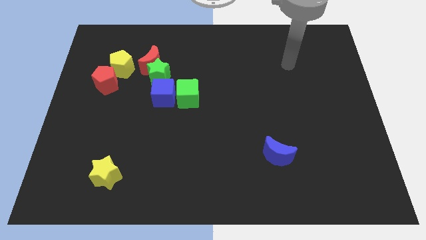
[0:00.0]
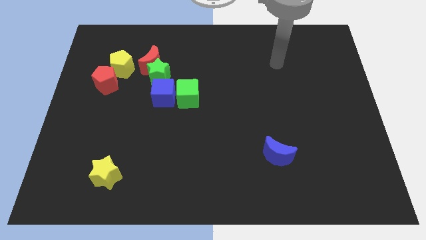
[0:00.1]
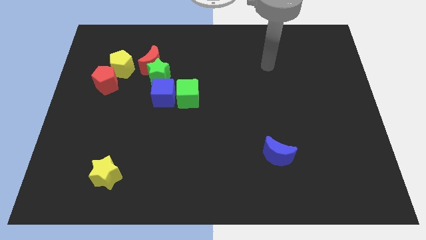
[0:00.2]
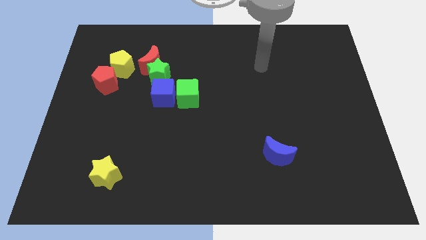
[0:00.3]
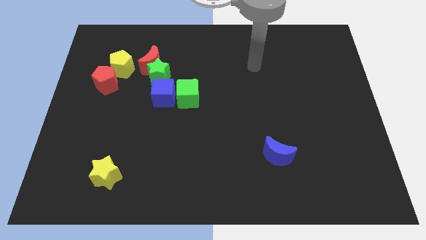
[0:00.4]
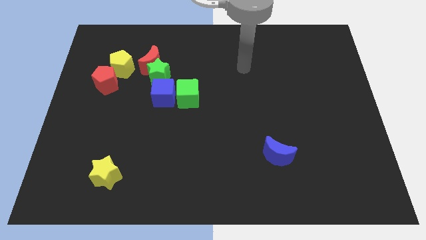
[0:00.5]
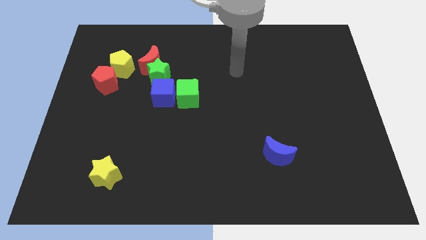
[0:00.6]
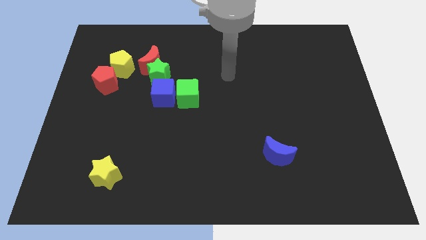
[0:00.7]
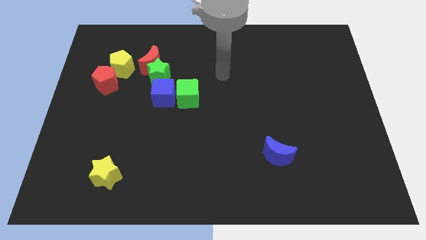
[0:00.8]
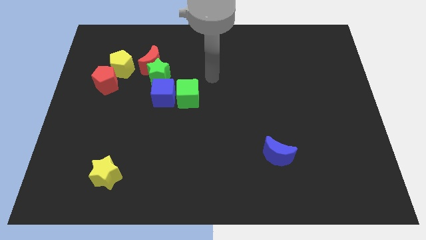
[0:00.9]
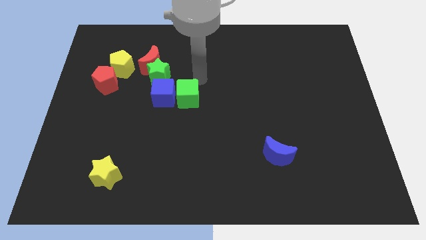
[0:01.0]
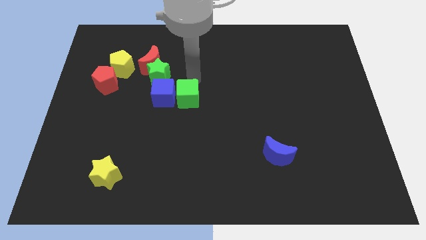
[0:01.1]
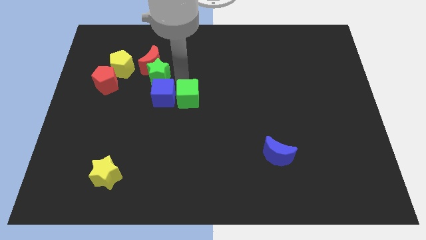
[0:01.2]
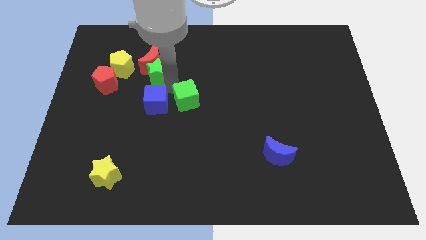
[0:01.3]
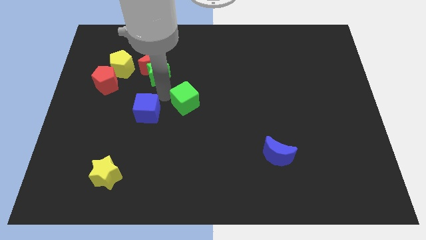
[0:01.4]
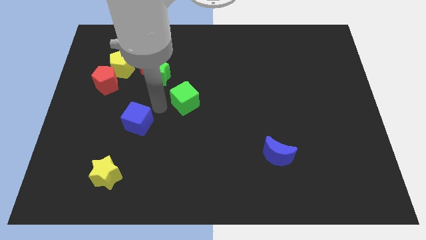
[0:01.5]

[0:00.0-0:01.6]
move the green cube away from the blue cube

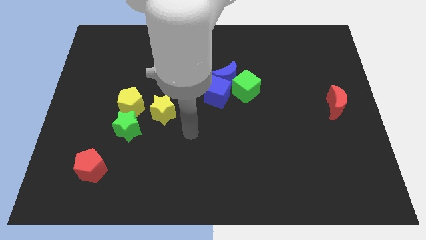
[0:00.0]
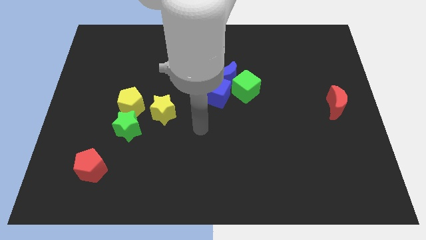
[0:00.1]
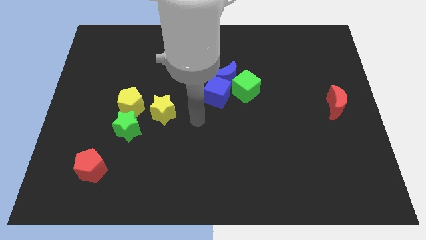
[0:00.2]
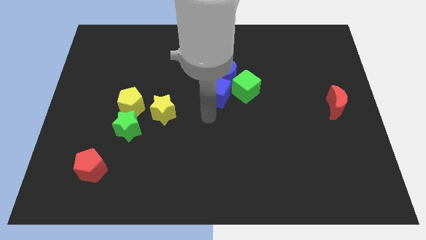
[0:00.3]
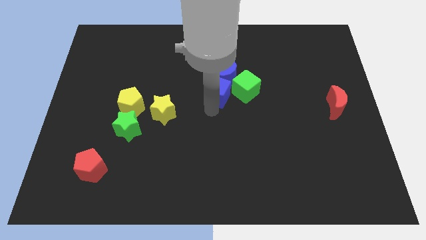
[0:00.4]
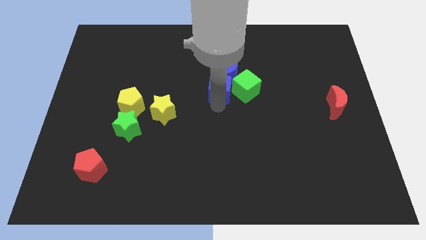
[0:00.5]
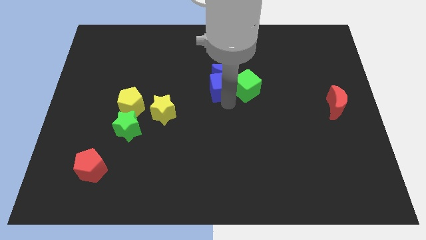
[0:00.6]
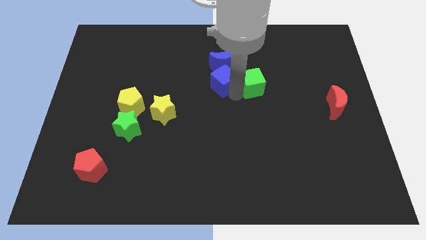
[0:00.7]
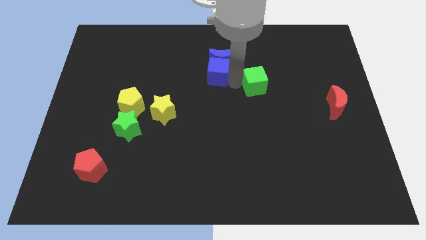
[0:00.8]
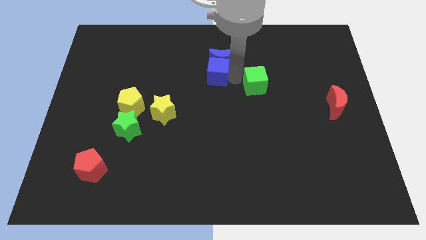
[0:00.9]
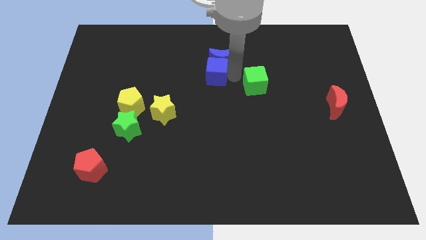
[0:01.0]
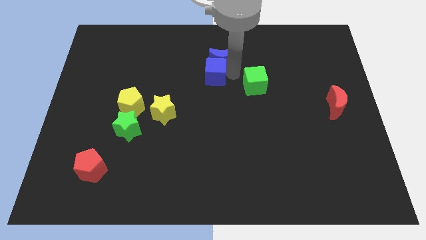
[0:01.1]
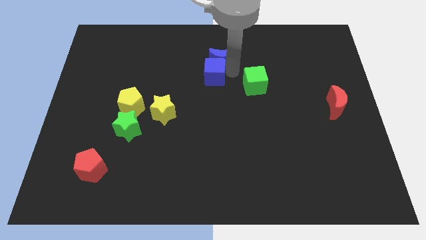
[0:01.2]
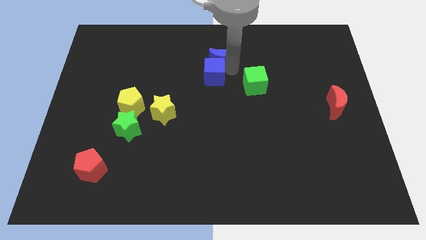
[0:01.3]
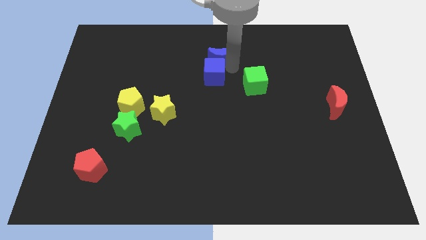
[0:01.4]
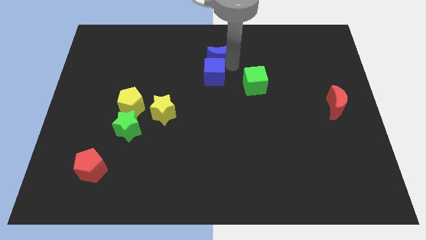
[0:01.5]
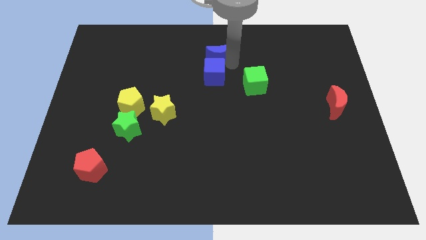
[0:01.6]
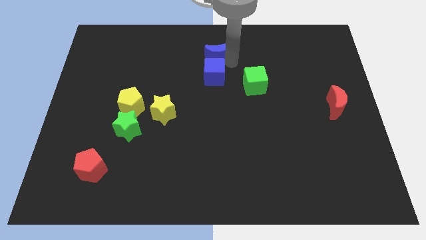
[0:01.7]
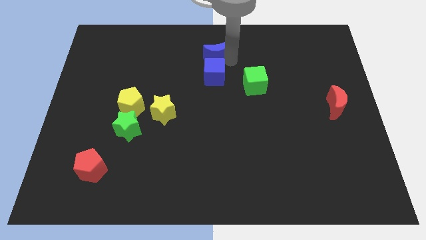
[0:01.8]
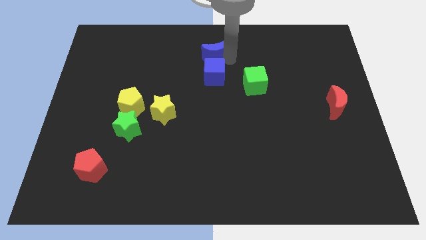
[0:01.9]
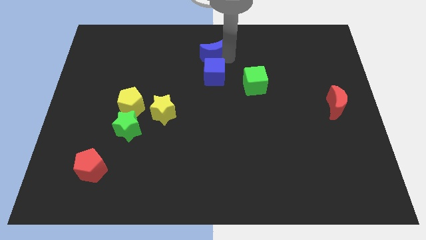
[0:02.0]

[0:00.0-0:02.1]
pull the blue moon apart from the blue cube and green cube

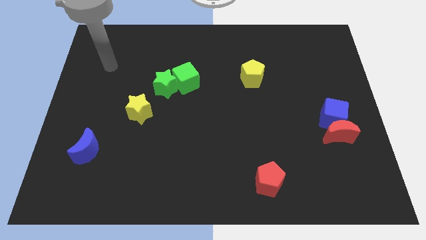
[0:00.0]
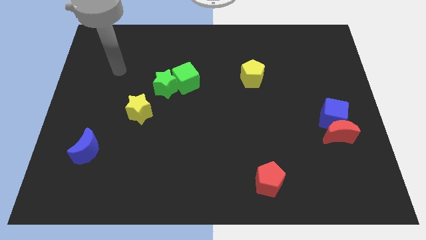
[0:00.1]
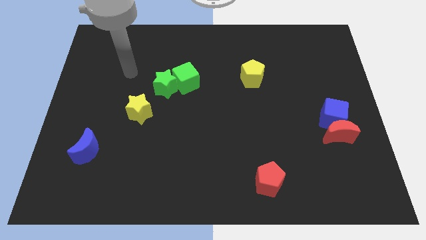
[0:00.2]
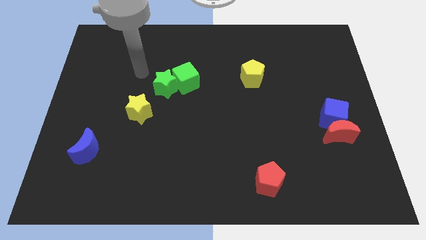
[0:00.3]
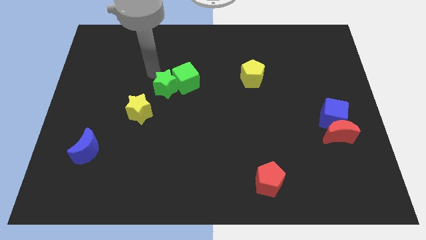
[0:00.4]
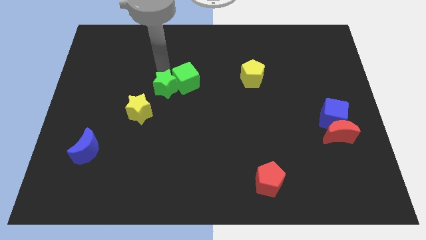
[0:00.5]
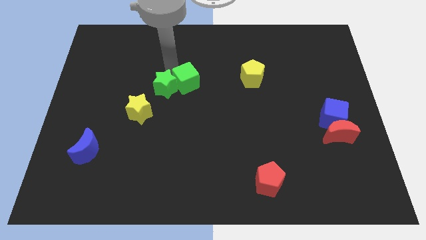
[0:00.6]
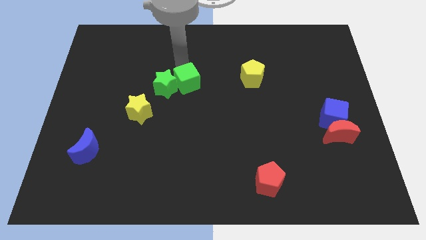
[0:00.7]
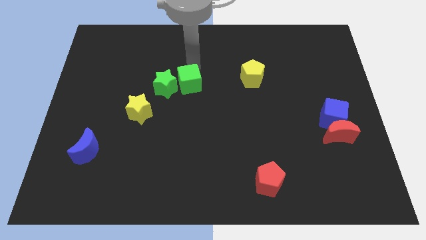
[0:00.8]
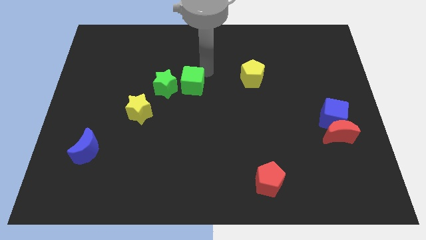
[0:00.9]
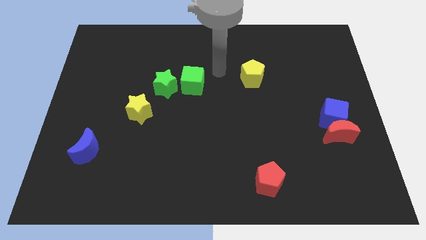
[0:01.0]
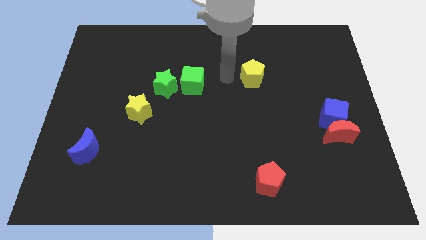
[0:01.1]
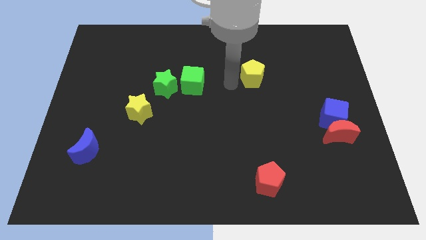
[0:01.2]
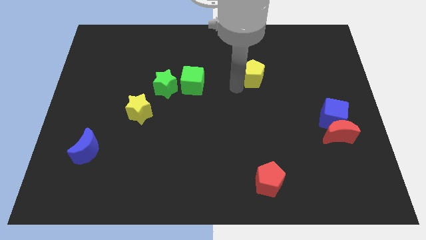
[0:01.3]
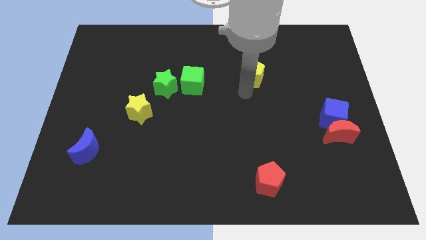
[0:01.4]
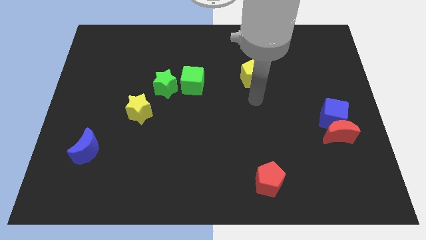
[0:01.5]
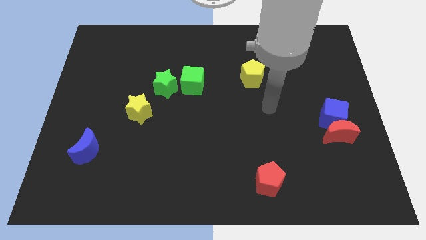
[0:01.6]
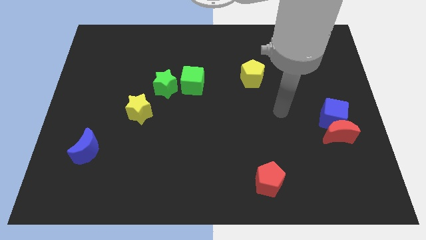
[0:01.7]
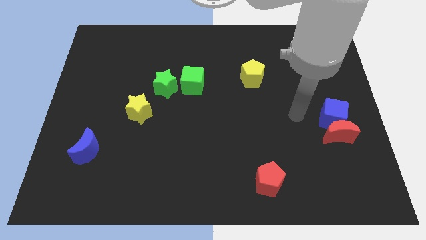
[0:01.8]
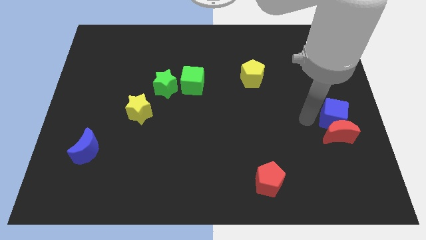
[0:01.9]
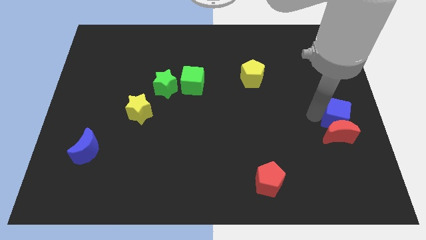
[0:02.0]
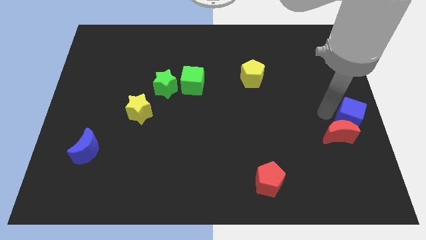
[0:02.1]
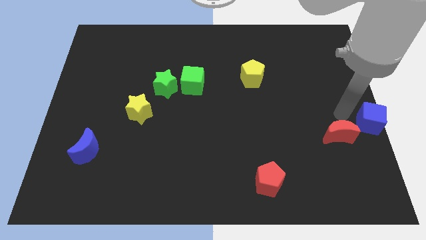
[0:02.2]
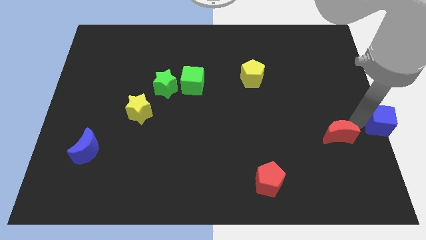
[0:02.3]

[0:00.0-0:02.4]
separate the red moon from the blue cube

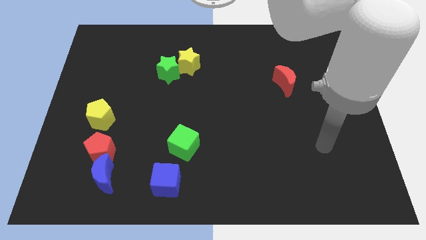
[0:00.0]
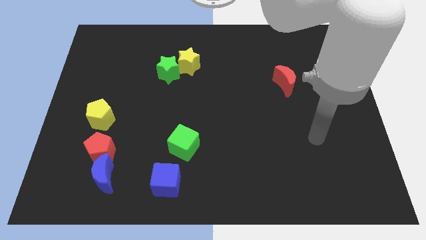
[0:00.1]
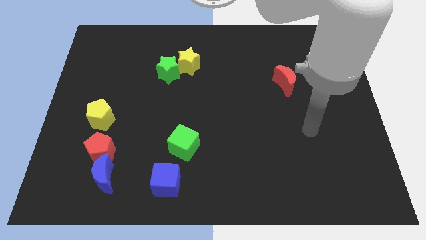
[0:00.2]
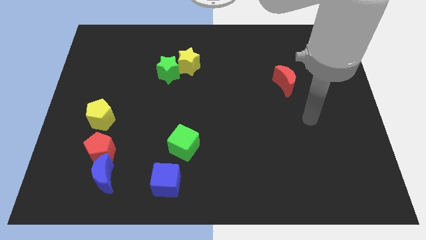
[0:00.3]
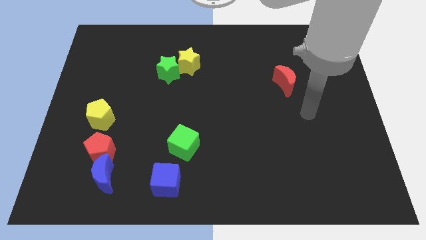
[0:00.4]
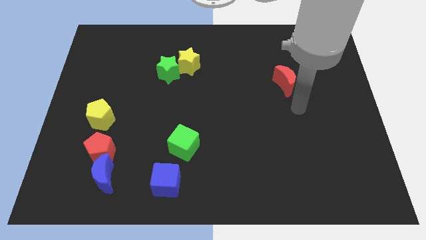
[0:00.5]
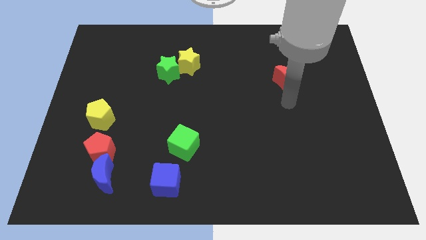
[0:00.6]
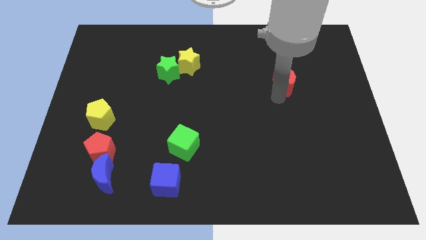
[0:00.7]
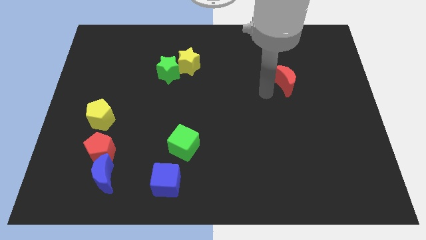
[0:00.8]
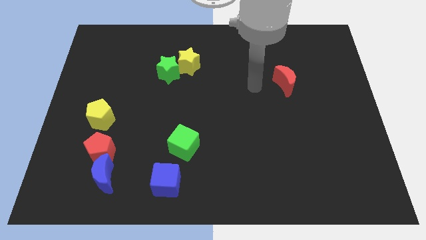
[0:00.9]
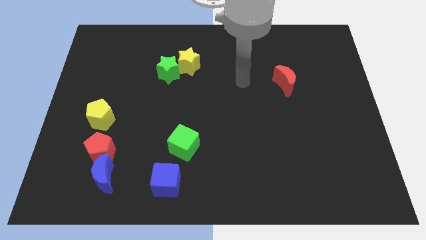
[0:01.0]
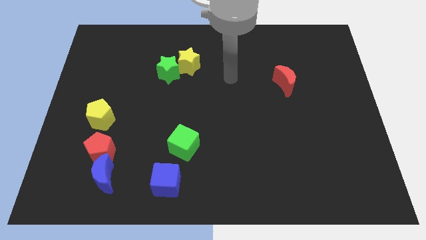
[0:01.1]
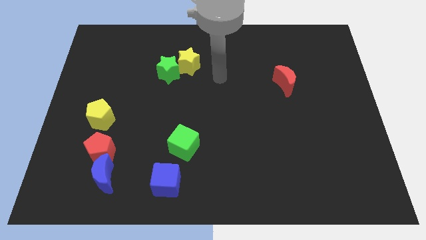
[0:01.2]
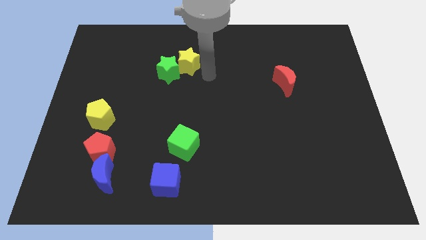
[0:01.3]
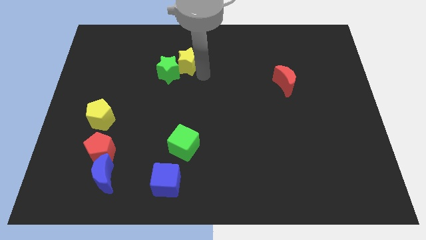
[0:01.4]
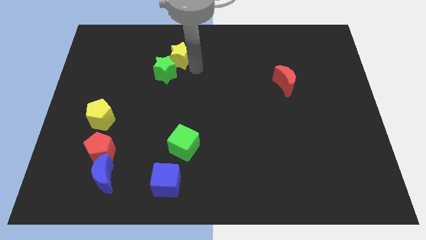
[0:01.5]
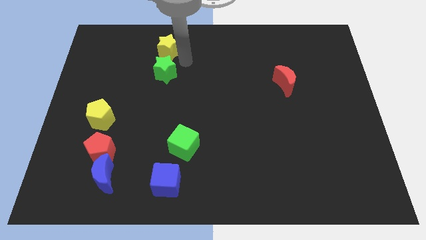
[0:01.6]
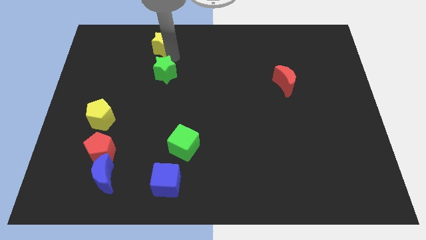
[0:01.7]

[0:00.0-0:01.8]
move the green star away from the yellow star

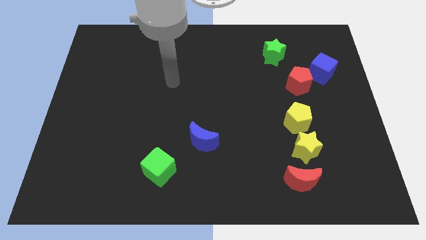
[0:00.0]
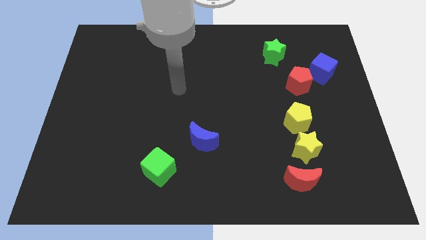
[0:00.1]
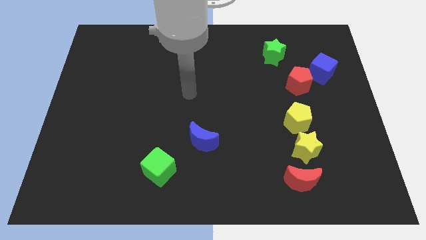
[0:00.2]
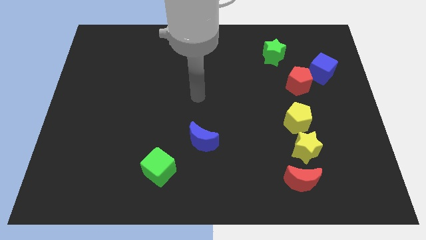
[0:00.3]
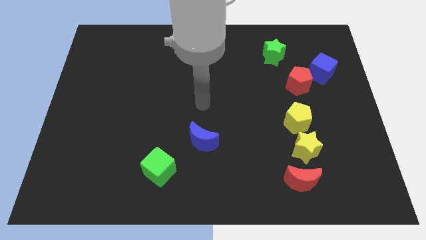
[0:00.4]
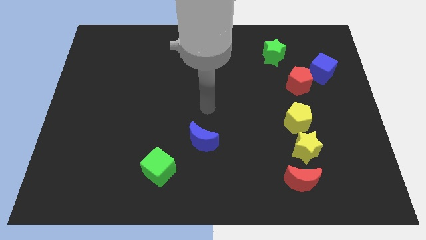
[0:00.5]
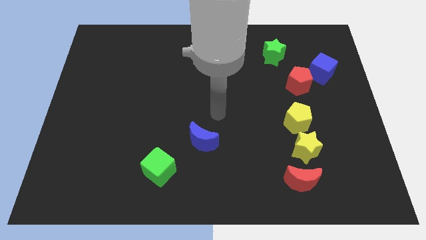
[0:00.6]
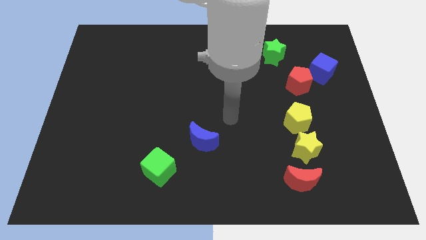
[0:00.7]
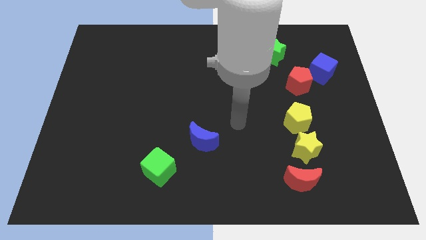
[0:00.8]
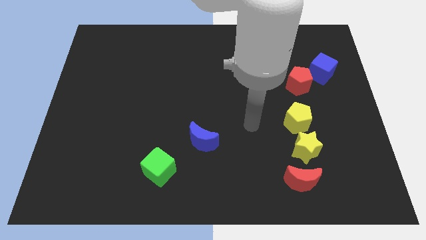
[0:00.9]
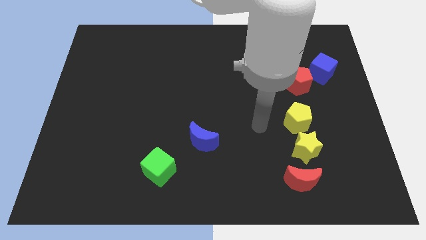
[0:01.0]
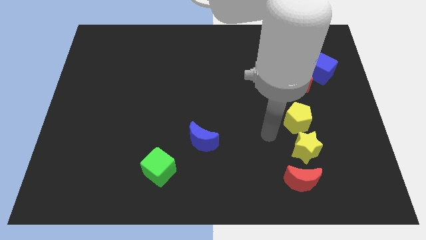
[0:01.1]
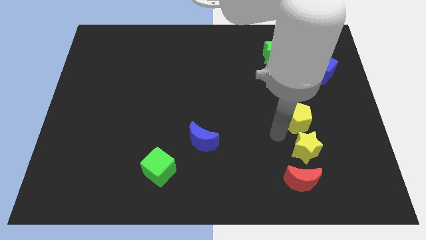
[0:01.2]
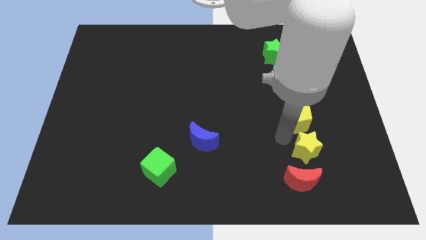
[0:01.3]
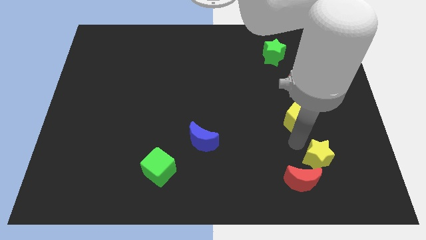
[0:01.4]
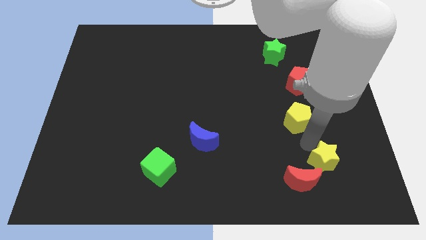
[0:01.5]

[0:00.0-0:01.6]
pull the yellow pentagon apart from the yellow star
